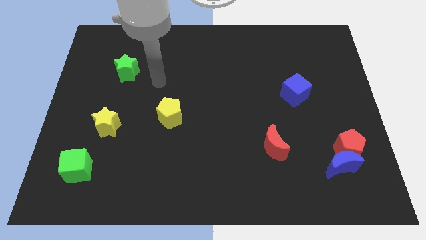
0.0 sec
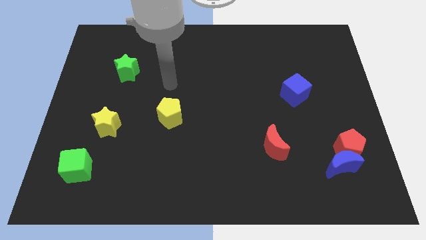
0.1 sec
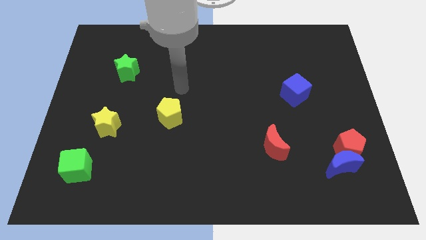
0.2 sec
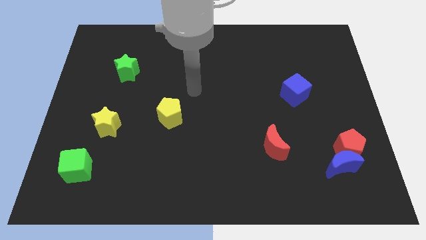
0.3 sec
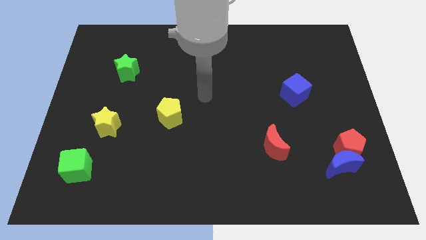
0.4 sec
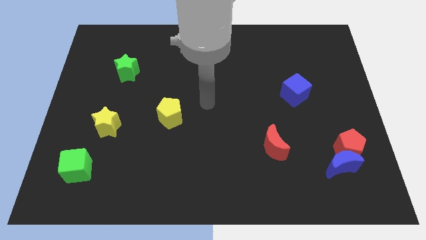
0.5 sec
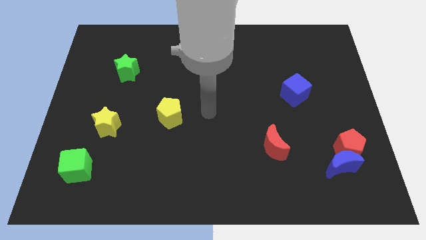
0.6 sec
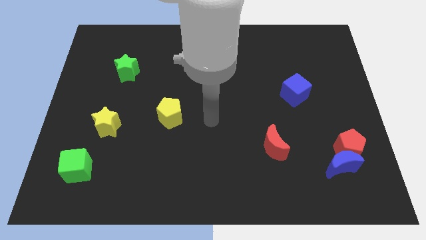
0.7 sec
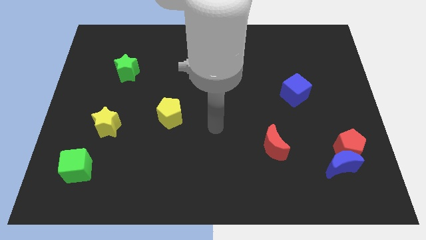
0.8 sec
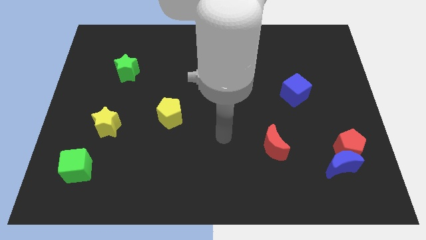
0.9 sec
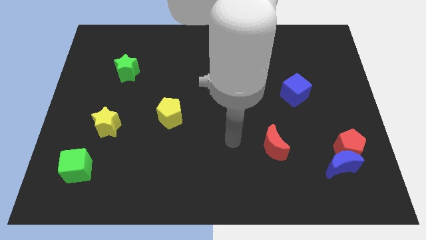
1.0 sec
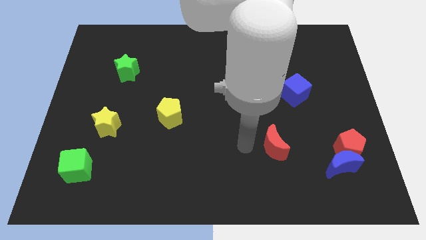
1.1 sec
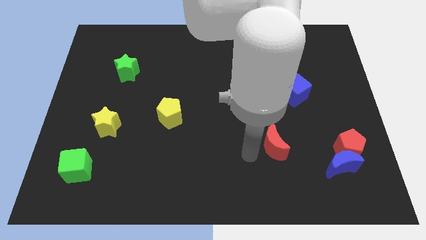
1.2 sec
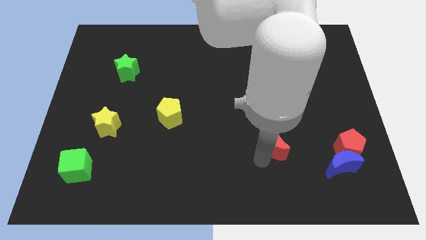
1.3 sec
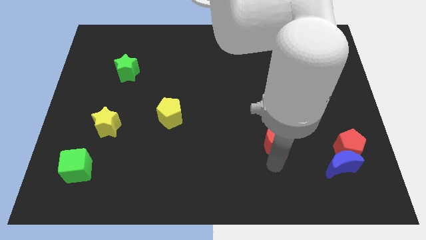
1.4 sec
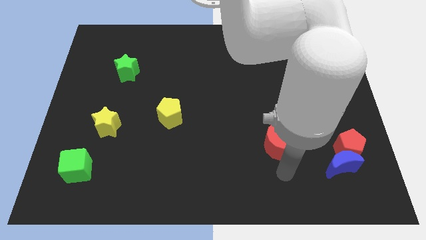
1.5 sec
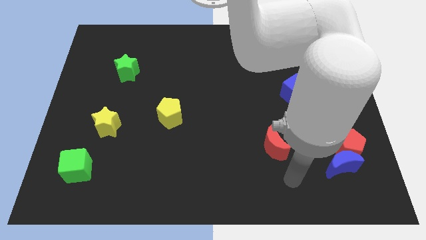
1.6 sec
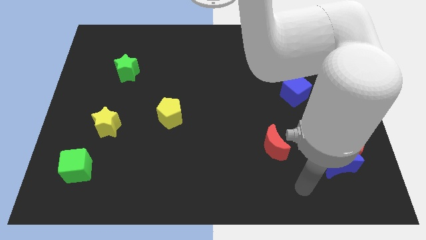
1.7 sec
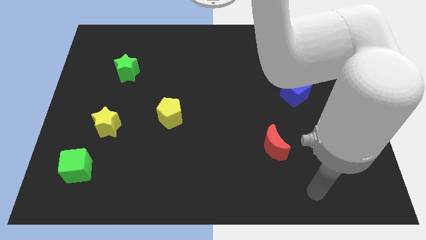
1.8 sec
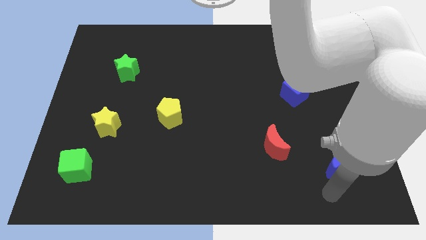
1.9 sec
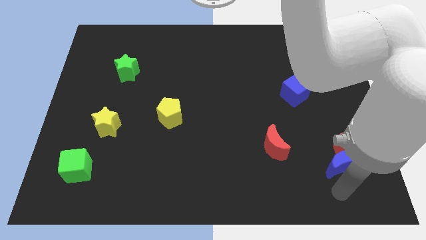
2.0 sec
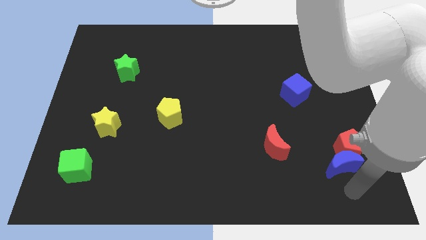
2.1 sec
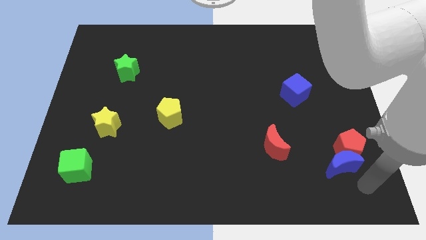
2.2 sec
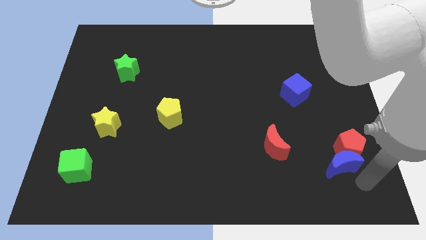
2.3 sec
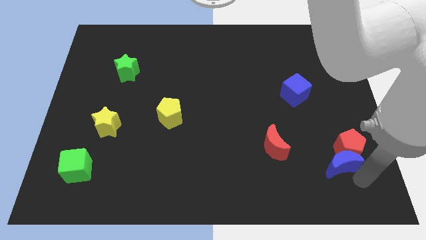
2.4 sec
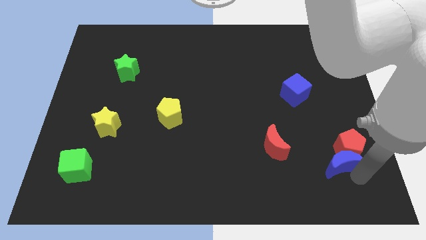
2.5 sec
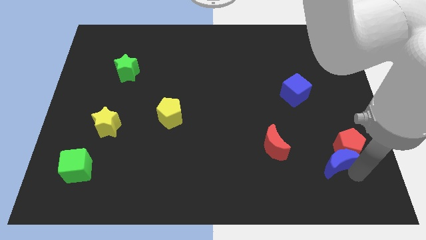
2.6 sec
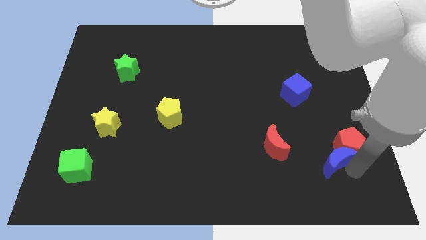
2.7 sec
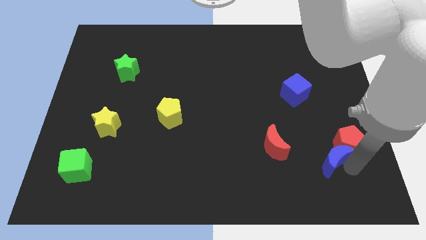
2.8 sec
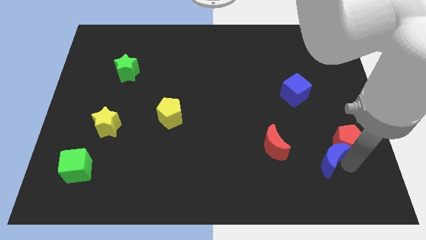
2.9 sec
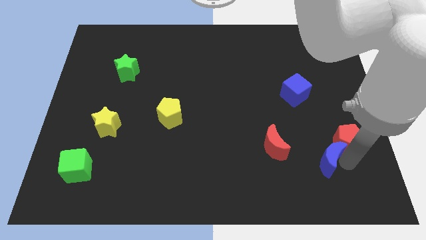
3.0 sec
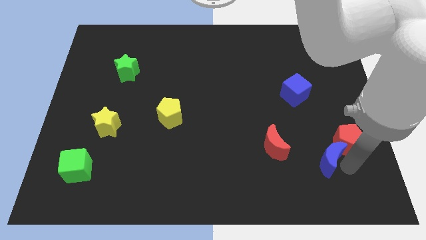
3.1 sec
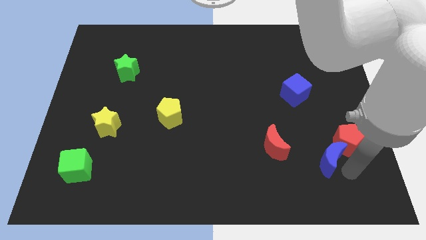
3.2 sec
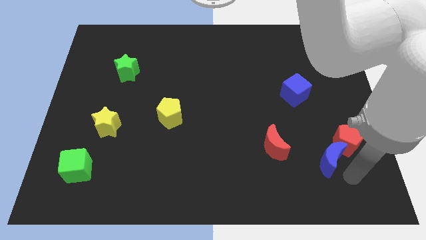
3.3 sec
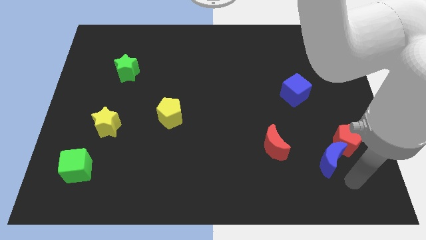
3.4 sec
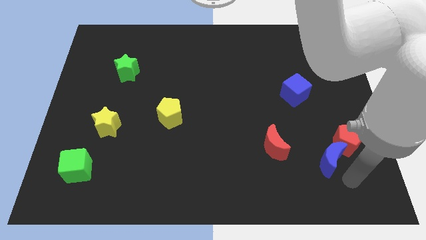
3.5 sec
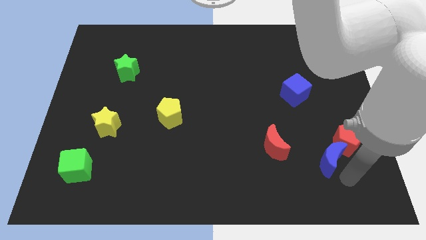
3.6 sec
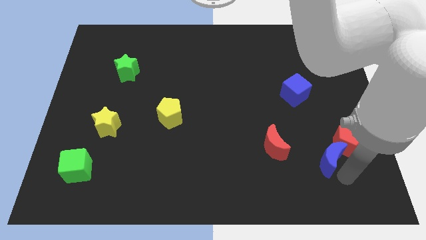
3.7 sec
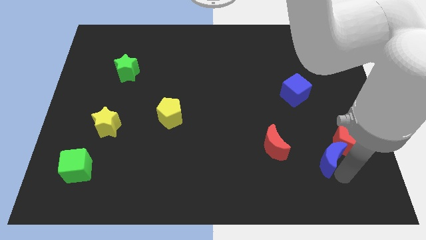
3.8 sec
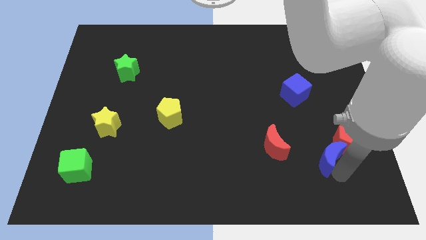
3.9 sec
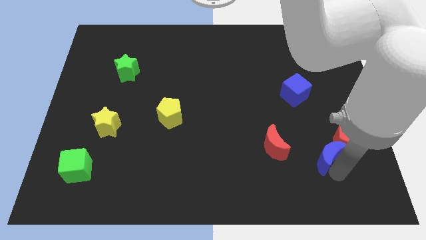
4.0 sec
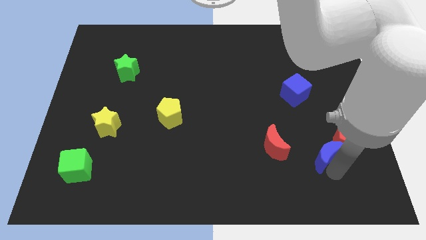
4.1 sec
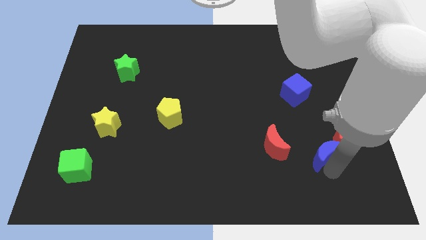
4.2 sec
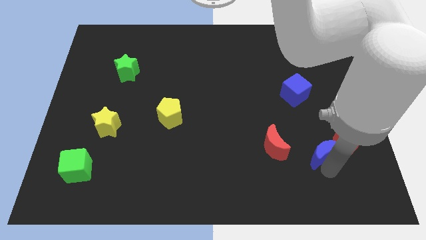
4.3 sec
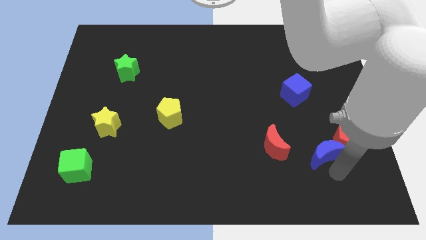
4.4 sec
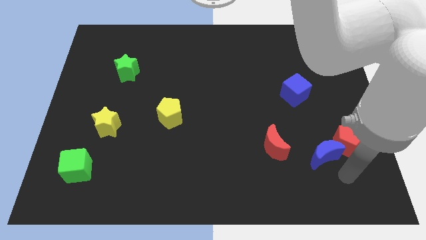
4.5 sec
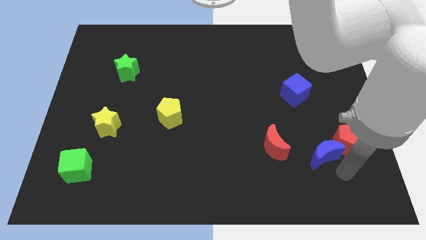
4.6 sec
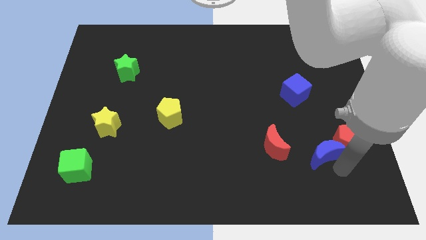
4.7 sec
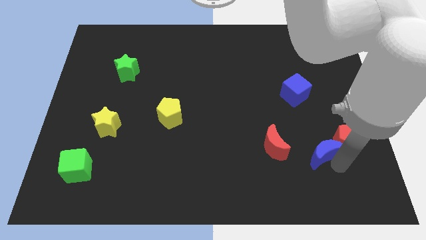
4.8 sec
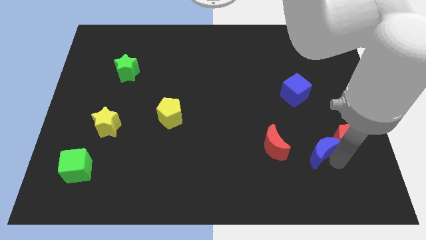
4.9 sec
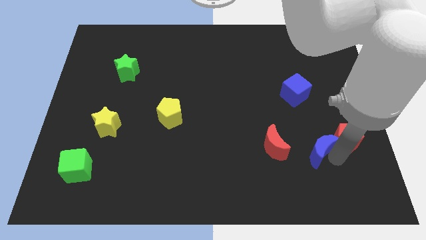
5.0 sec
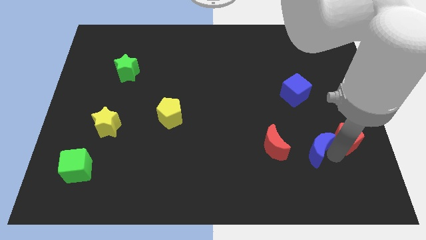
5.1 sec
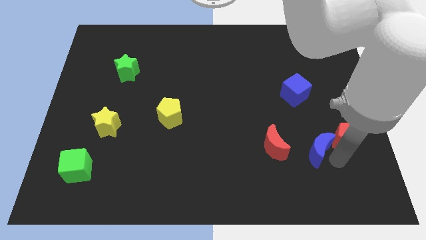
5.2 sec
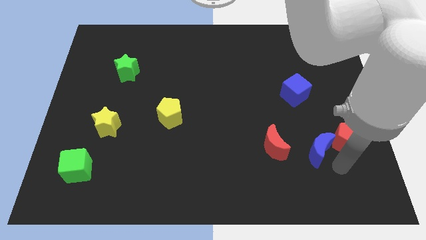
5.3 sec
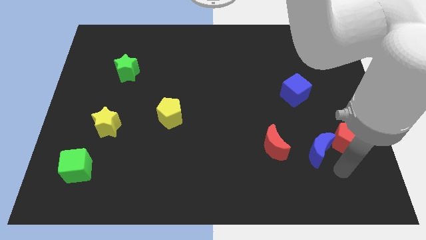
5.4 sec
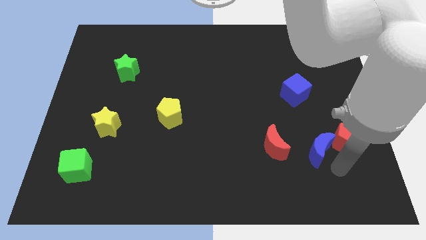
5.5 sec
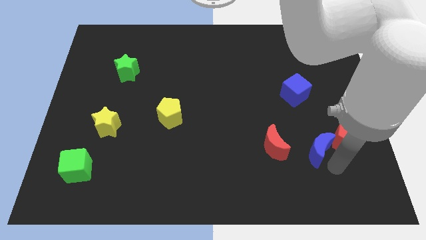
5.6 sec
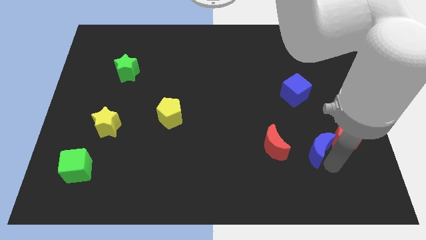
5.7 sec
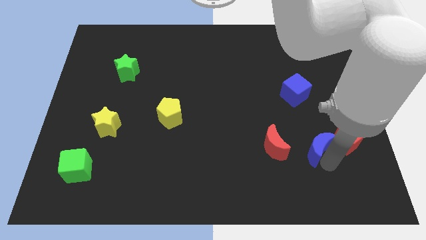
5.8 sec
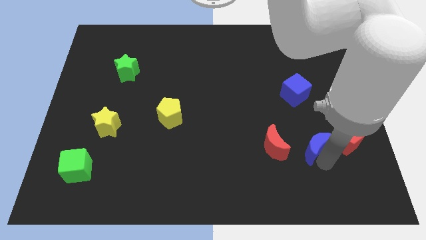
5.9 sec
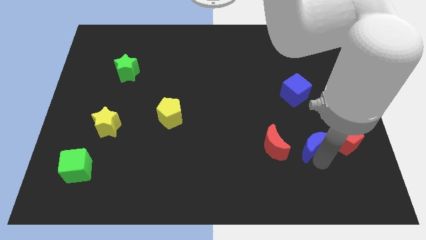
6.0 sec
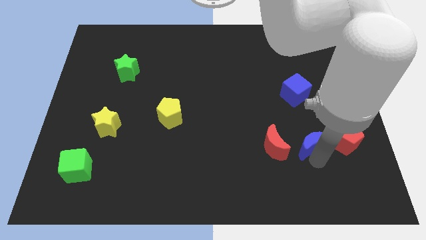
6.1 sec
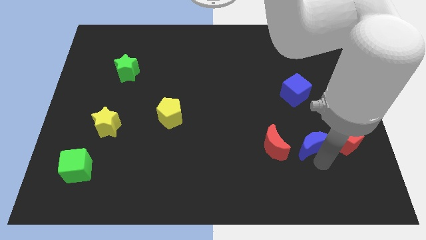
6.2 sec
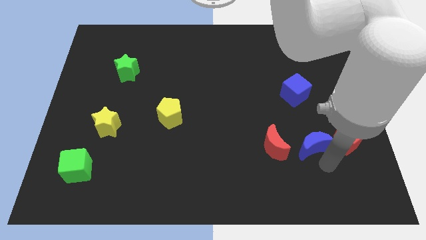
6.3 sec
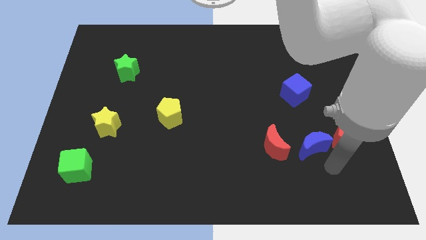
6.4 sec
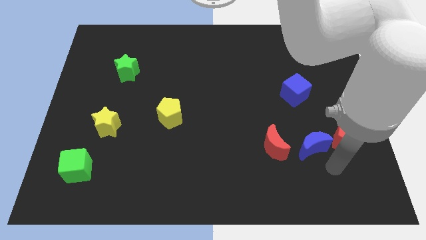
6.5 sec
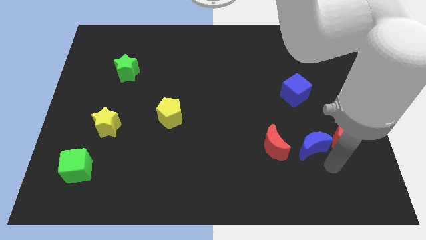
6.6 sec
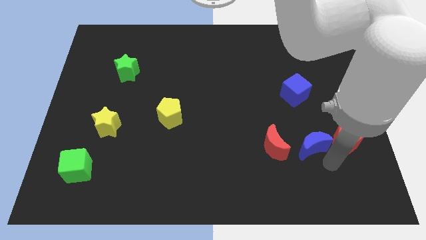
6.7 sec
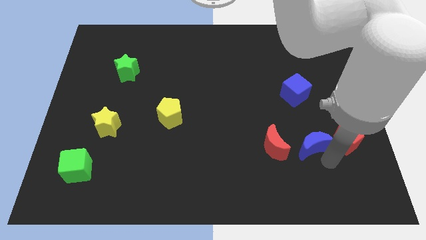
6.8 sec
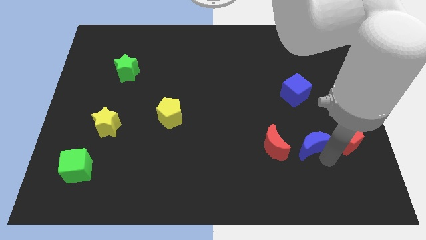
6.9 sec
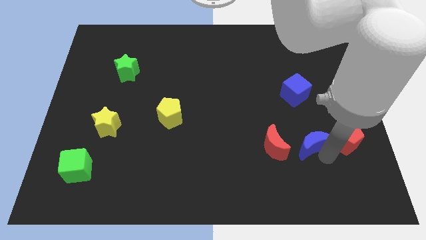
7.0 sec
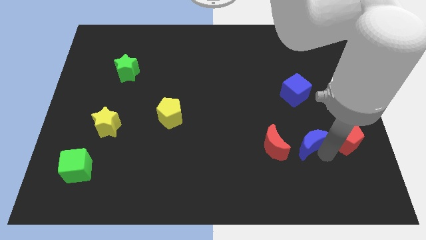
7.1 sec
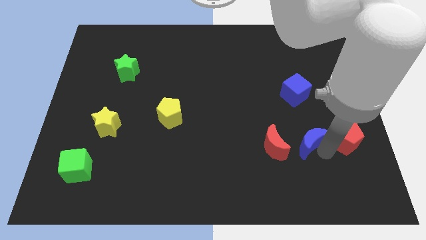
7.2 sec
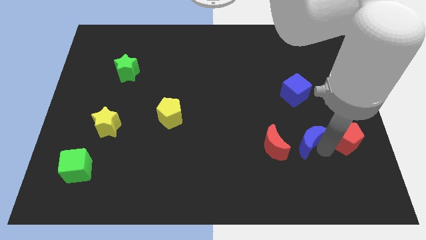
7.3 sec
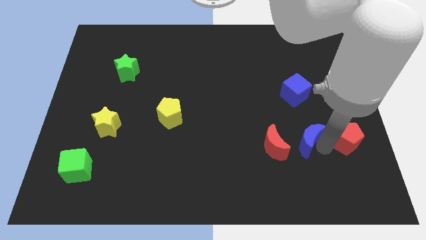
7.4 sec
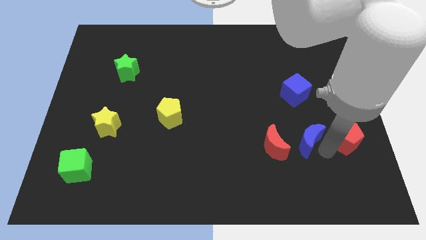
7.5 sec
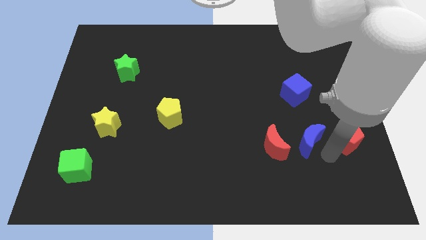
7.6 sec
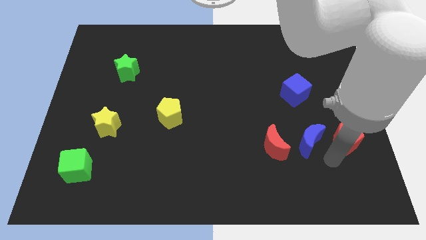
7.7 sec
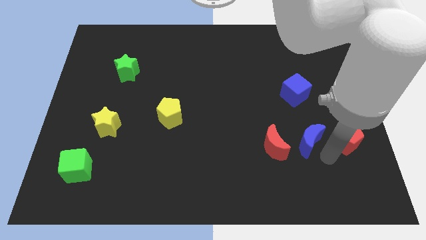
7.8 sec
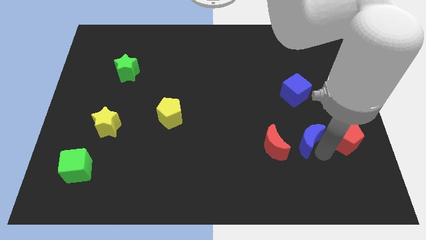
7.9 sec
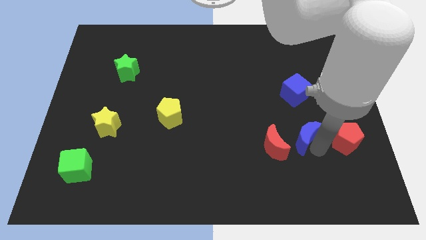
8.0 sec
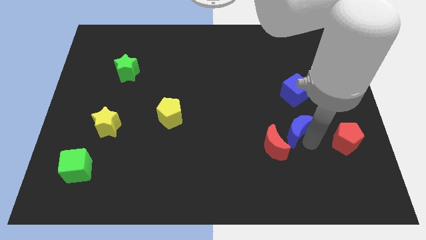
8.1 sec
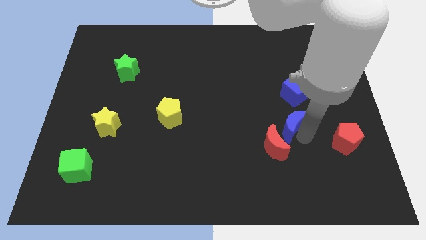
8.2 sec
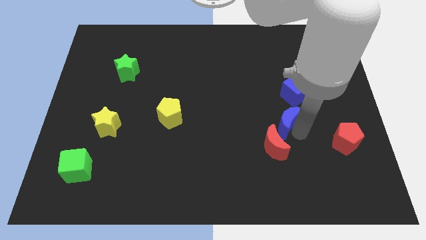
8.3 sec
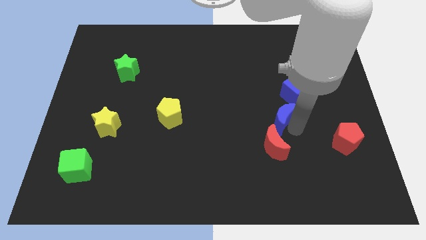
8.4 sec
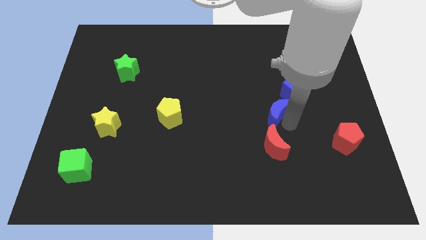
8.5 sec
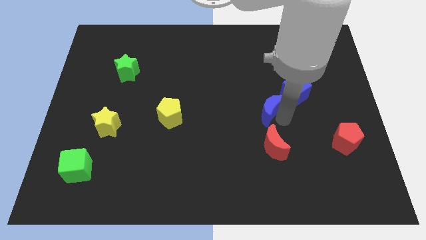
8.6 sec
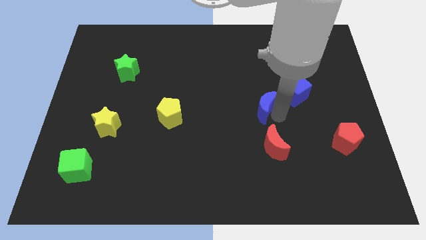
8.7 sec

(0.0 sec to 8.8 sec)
push the blue moon up and to the left diagonally
